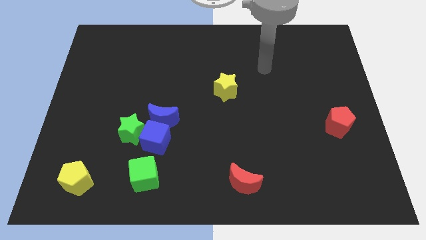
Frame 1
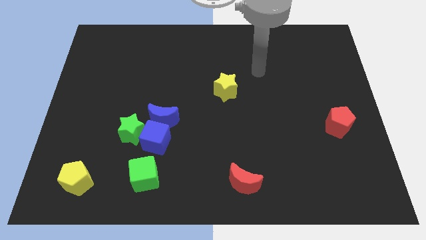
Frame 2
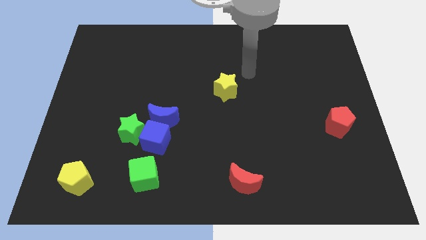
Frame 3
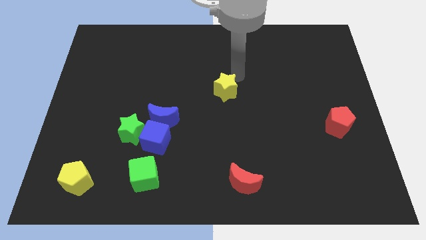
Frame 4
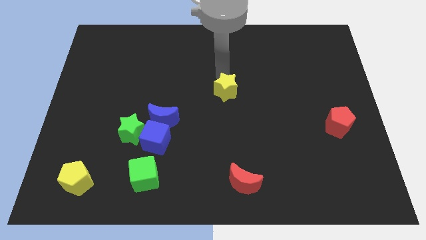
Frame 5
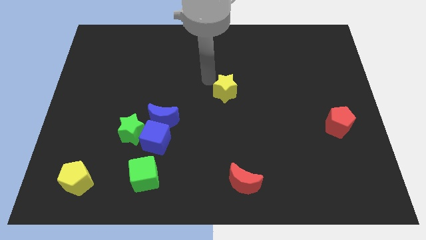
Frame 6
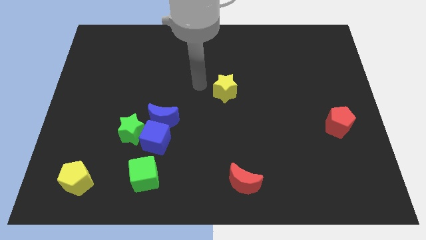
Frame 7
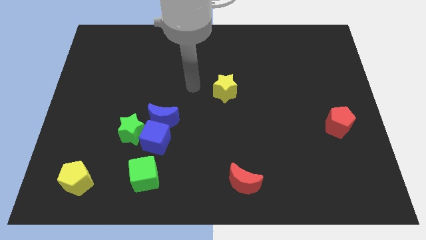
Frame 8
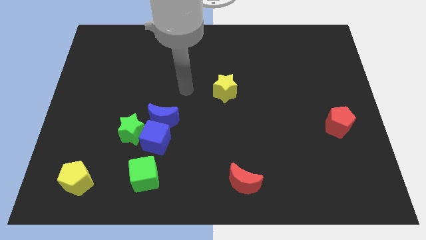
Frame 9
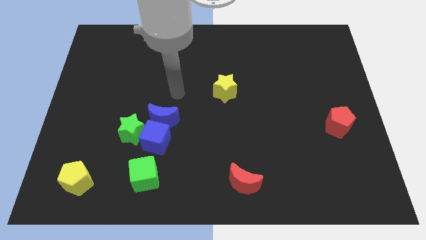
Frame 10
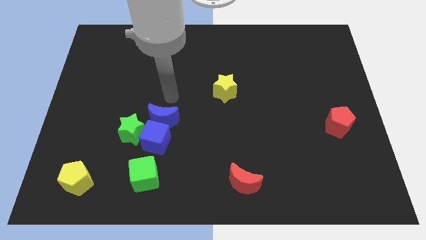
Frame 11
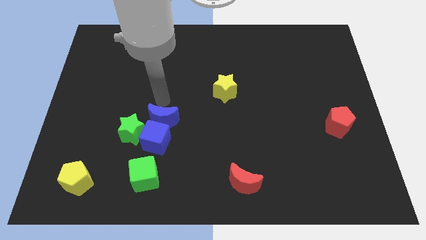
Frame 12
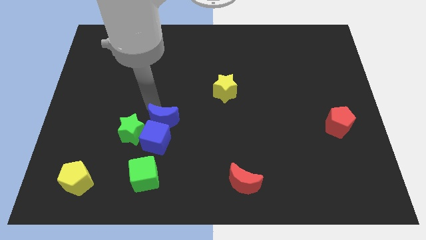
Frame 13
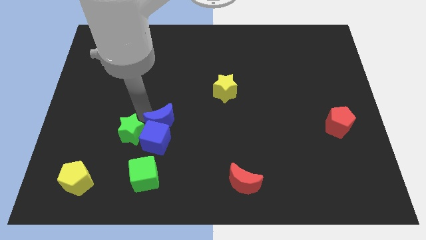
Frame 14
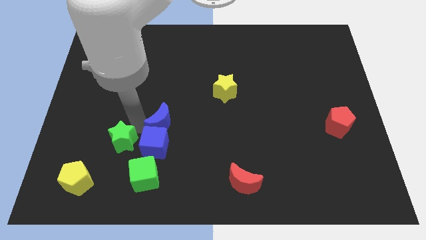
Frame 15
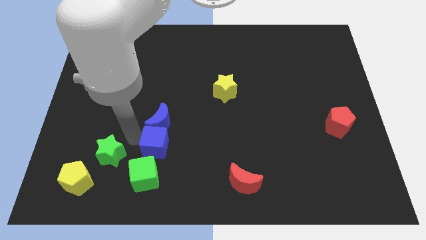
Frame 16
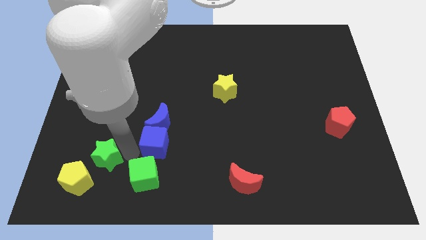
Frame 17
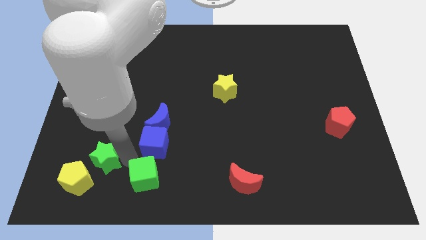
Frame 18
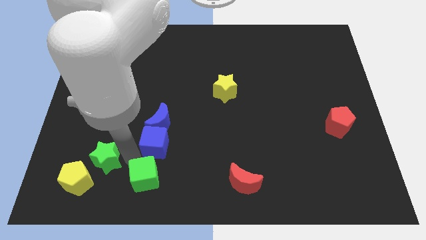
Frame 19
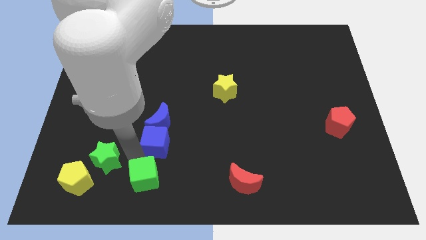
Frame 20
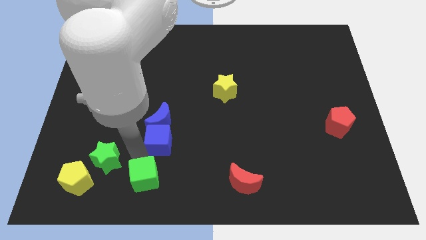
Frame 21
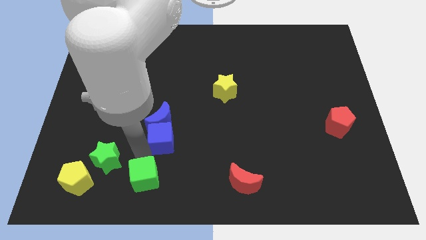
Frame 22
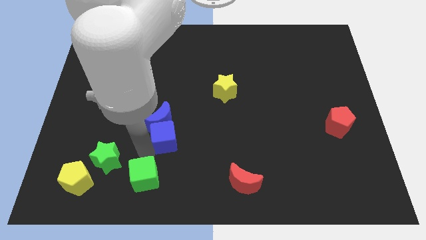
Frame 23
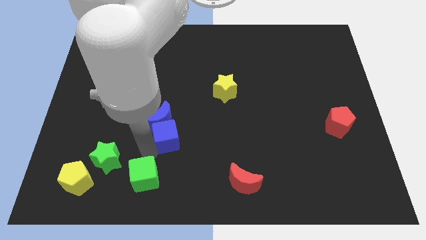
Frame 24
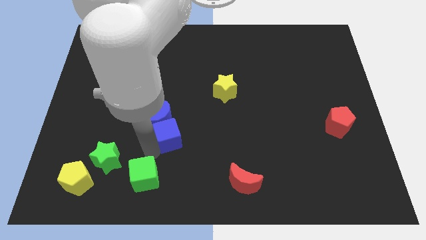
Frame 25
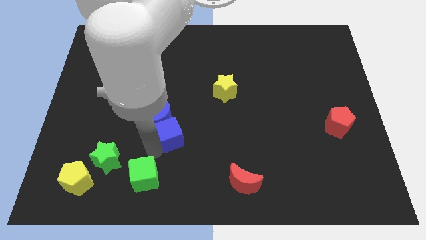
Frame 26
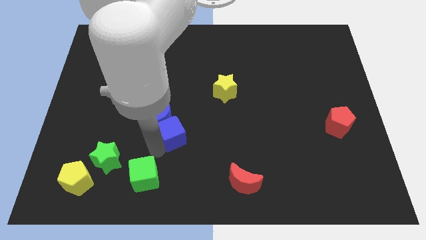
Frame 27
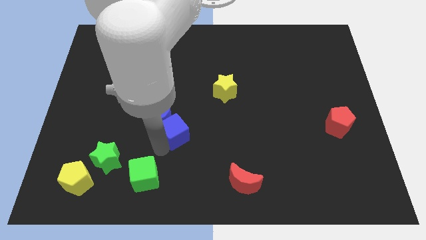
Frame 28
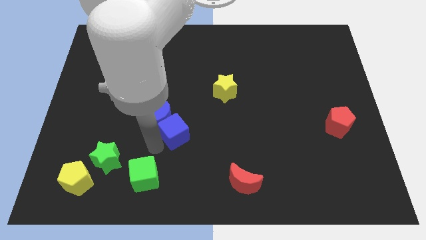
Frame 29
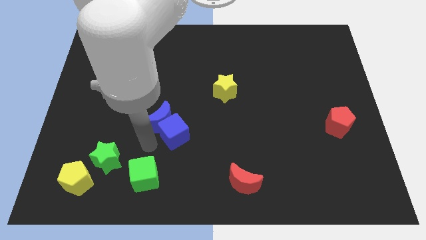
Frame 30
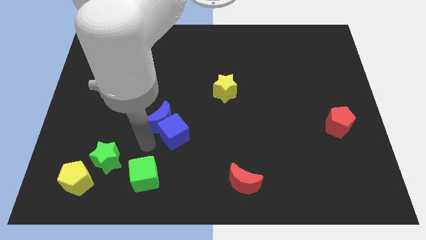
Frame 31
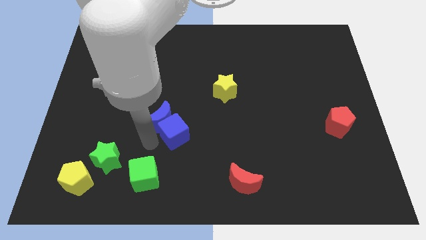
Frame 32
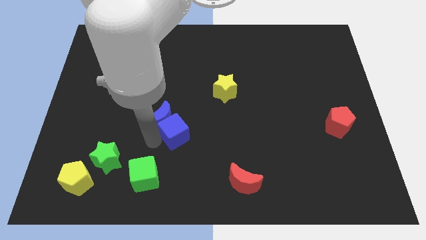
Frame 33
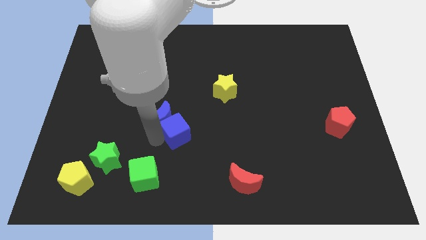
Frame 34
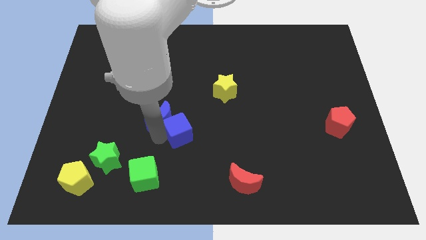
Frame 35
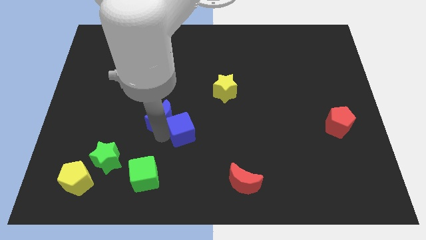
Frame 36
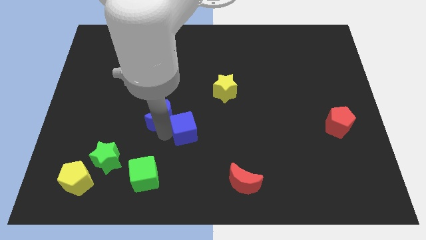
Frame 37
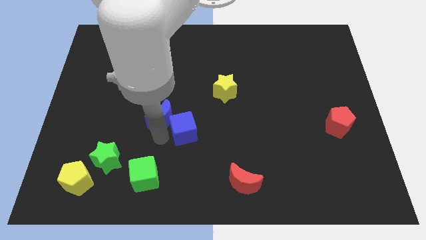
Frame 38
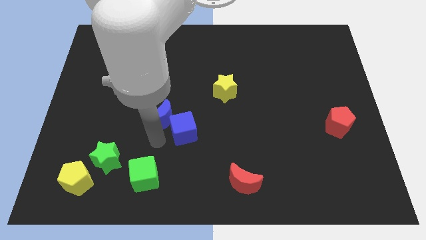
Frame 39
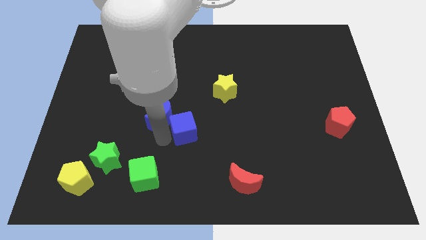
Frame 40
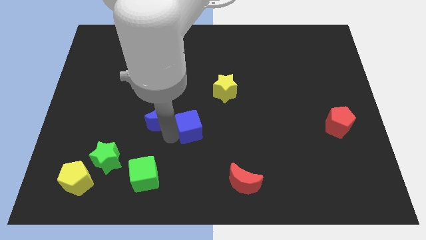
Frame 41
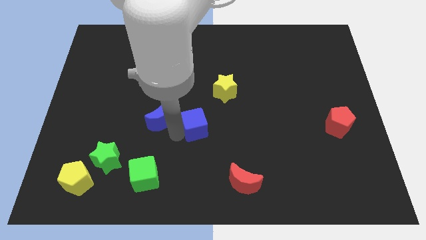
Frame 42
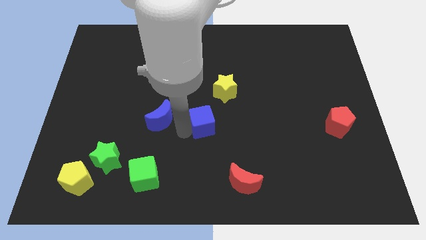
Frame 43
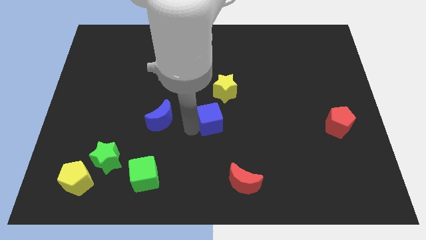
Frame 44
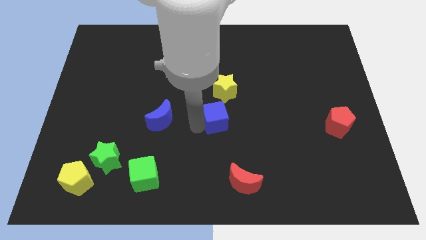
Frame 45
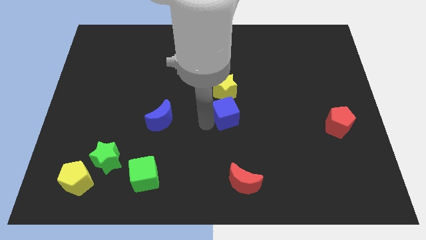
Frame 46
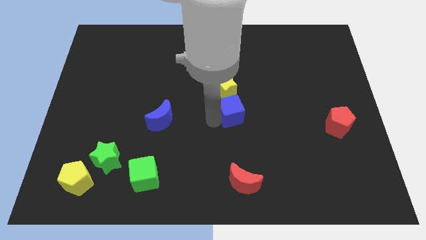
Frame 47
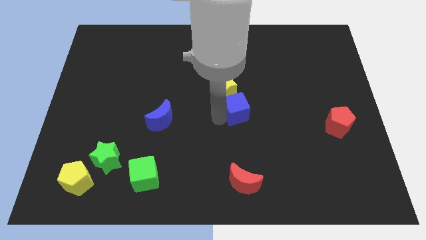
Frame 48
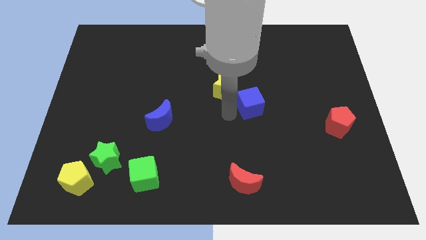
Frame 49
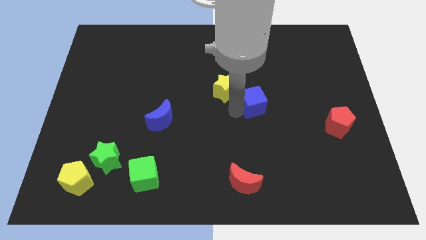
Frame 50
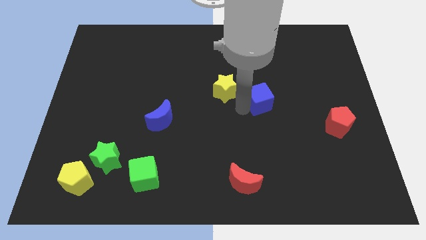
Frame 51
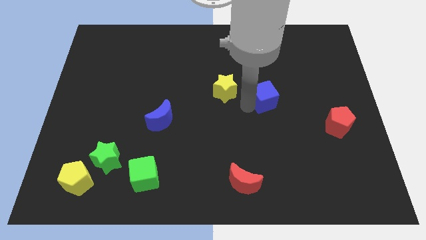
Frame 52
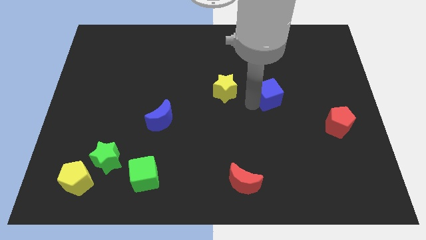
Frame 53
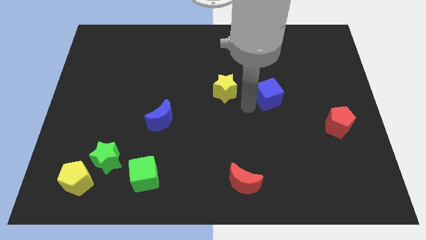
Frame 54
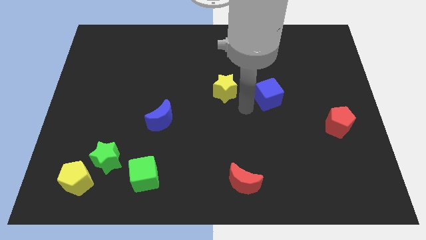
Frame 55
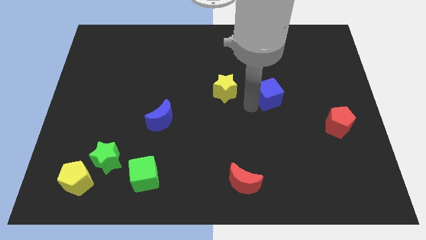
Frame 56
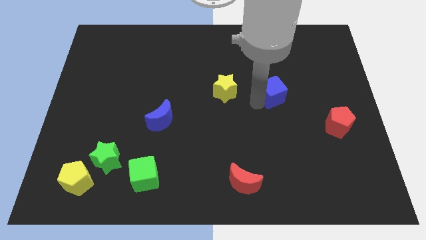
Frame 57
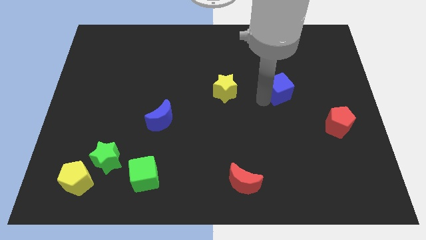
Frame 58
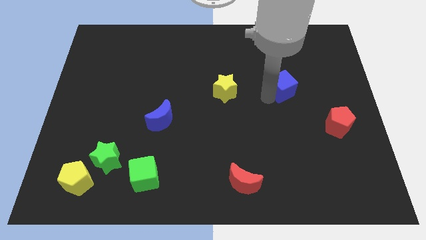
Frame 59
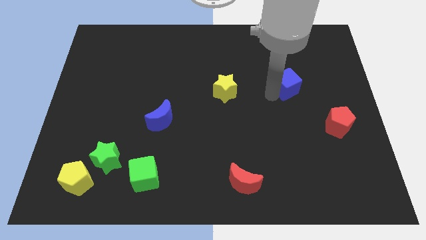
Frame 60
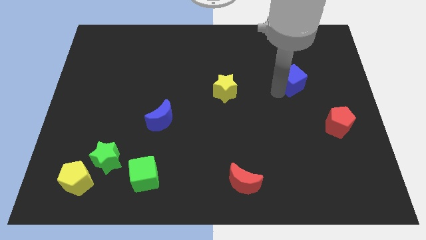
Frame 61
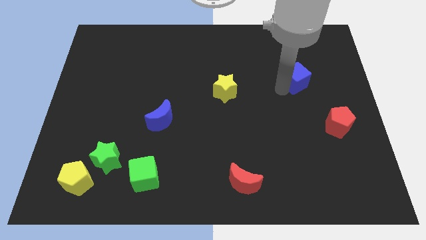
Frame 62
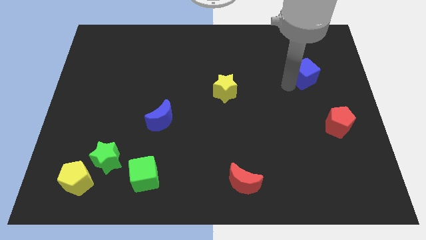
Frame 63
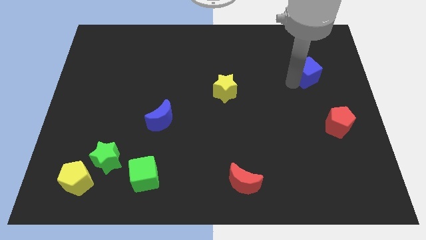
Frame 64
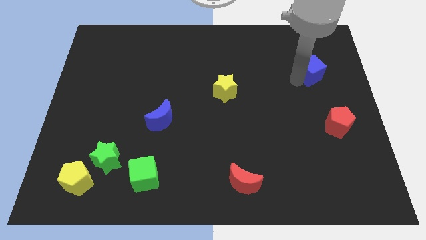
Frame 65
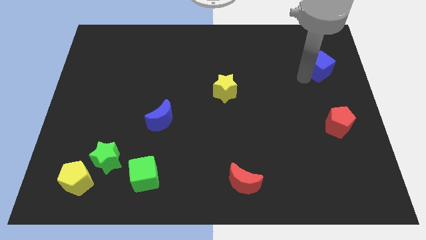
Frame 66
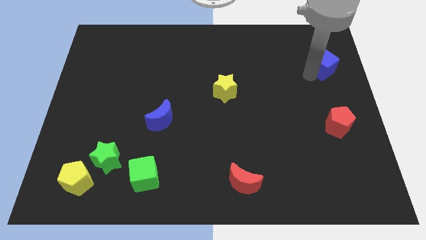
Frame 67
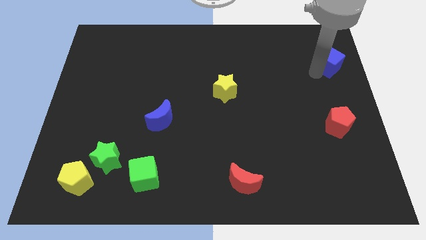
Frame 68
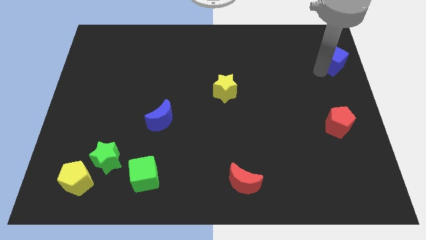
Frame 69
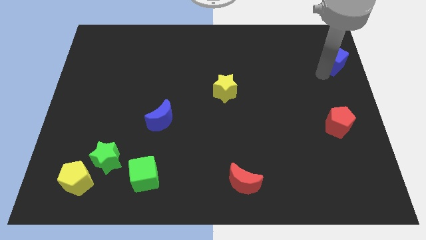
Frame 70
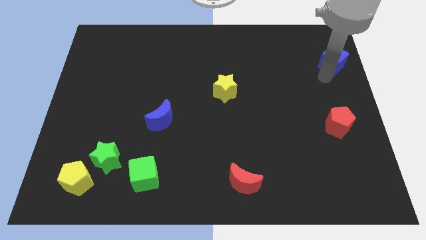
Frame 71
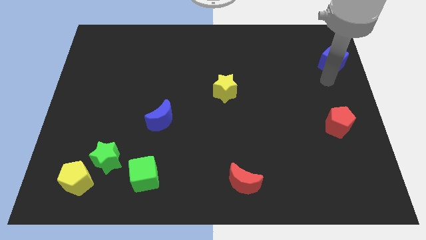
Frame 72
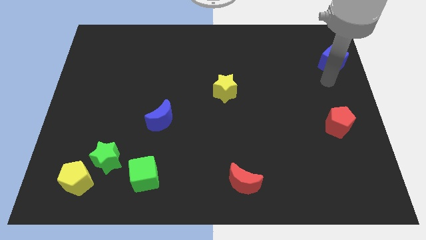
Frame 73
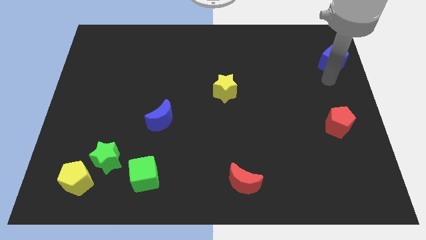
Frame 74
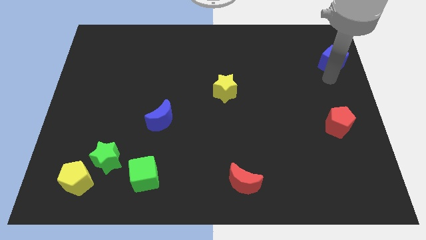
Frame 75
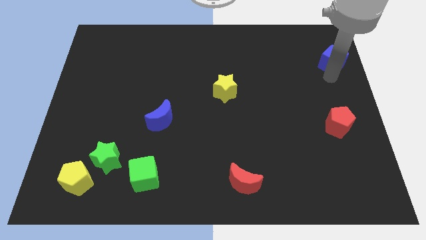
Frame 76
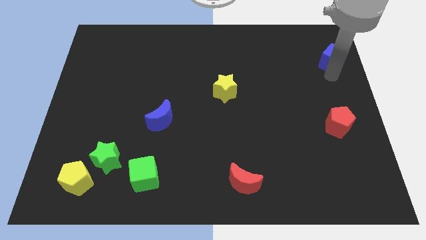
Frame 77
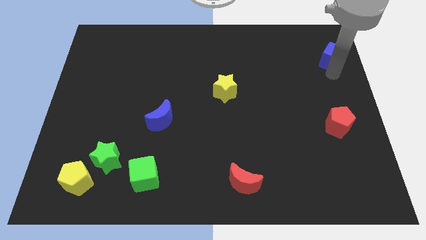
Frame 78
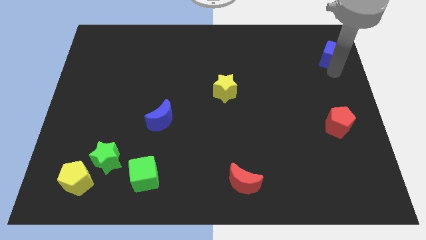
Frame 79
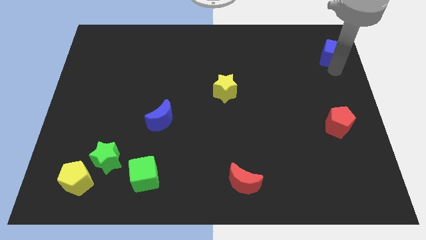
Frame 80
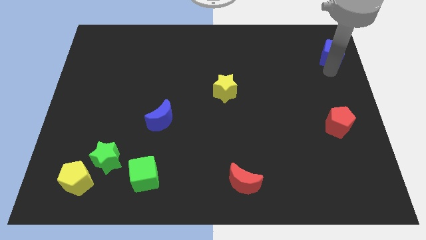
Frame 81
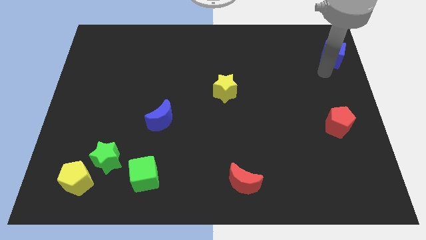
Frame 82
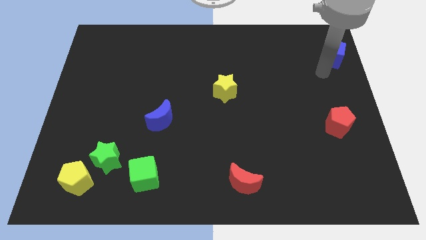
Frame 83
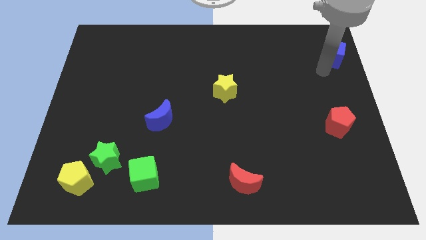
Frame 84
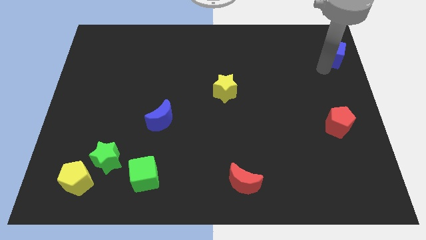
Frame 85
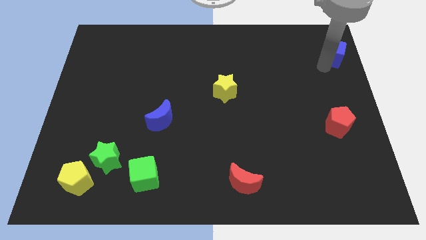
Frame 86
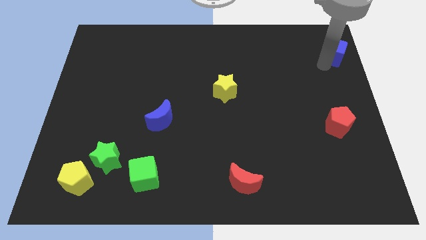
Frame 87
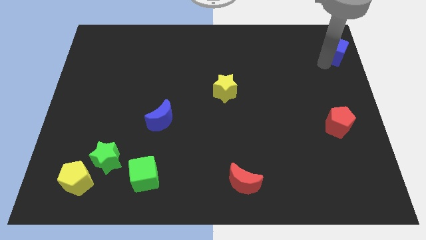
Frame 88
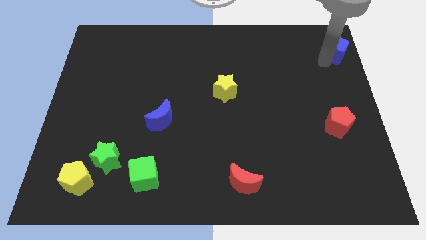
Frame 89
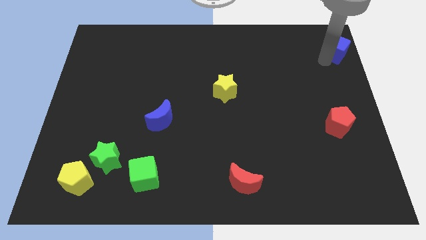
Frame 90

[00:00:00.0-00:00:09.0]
push the blue cube to the top right
